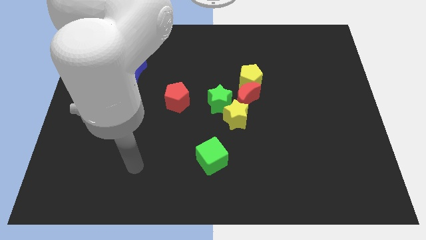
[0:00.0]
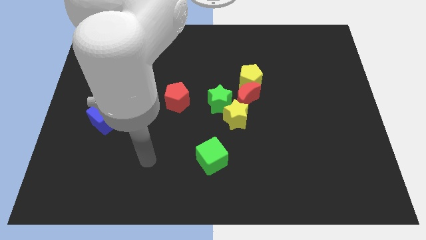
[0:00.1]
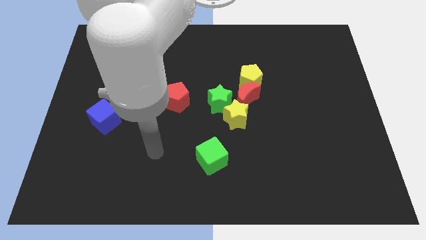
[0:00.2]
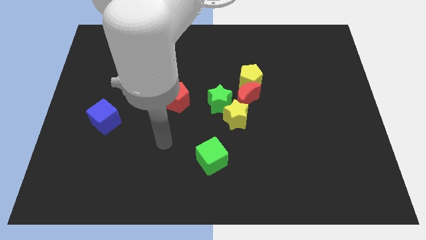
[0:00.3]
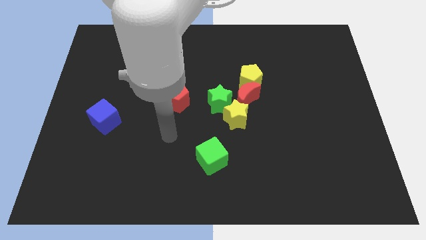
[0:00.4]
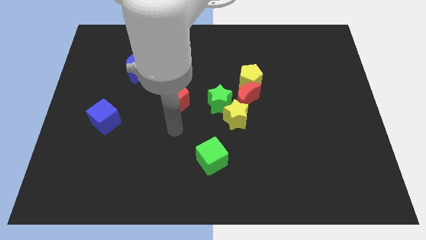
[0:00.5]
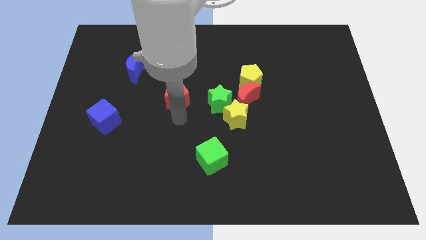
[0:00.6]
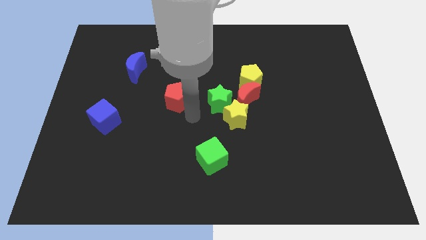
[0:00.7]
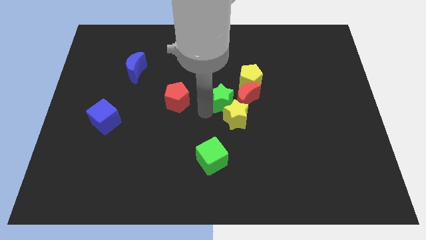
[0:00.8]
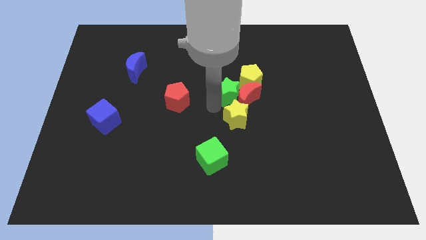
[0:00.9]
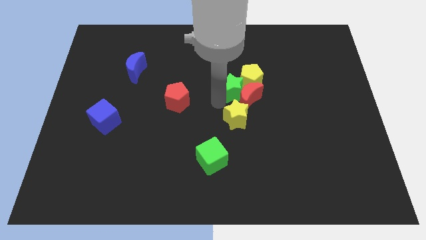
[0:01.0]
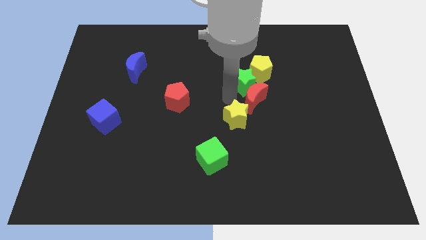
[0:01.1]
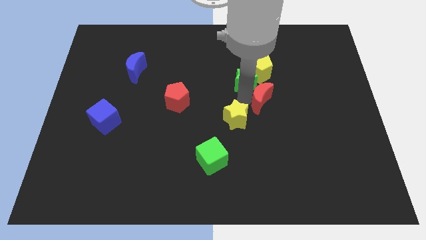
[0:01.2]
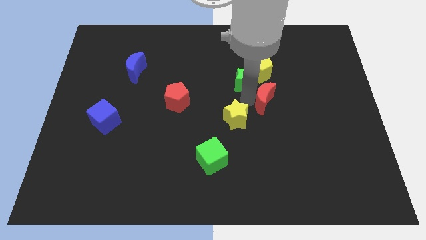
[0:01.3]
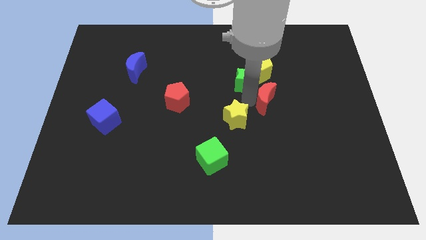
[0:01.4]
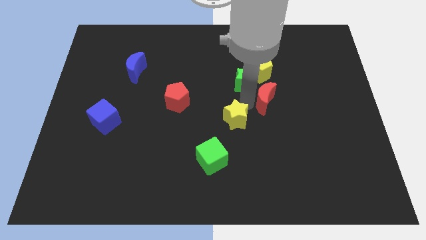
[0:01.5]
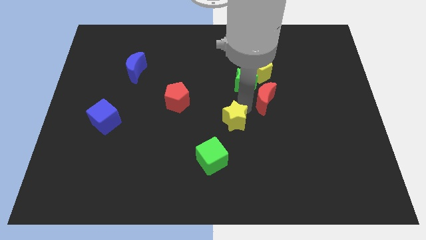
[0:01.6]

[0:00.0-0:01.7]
move the yellow star away from the green star and red moon

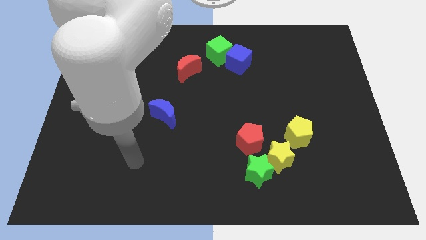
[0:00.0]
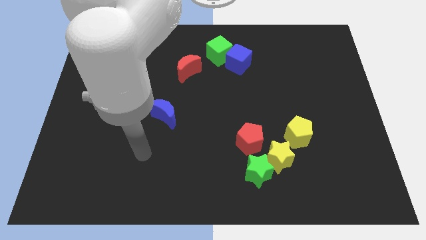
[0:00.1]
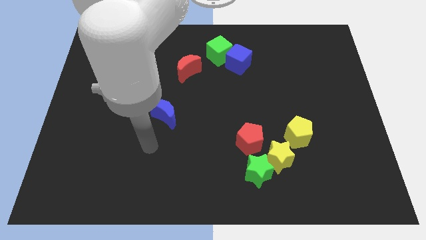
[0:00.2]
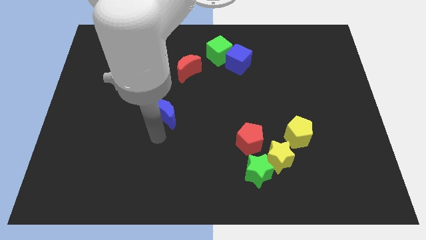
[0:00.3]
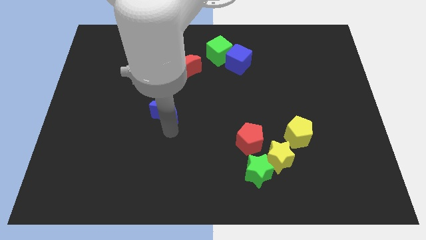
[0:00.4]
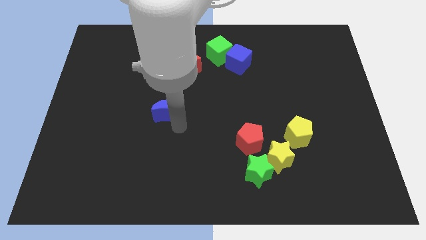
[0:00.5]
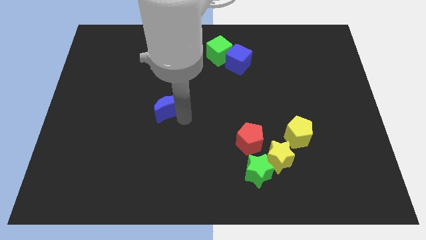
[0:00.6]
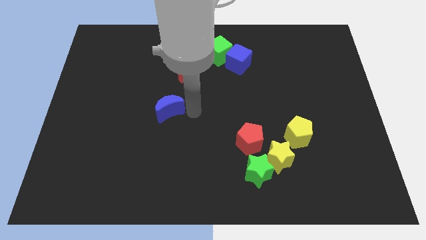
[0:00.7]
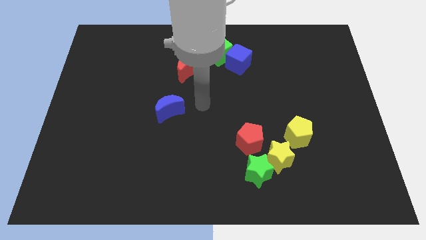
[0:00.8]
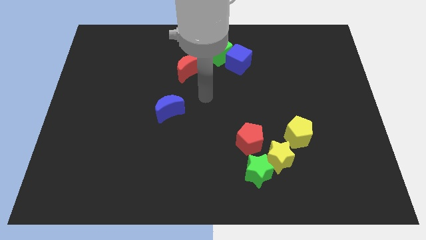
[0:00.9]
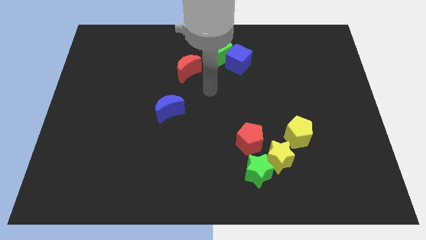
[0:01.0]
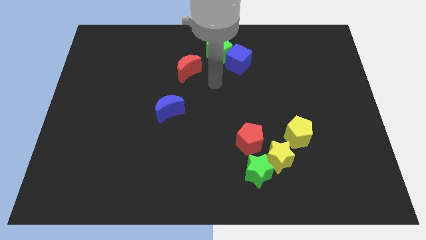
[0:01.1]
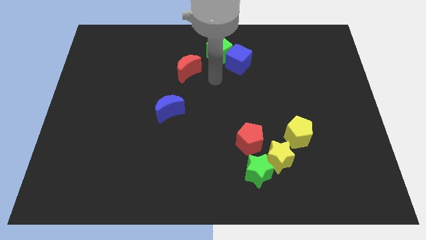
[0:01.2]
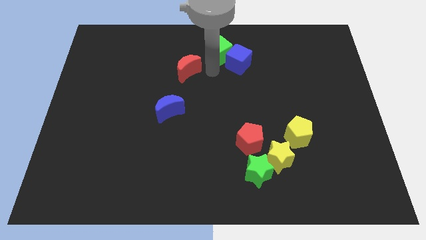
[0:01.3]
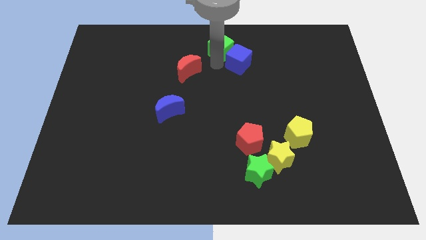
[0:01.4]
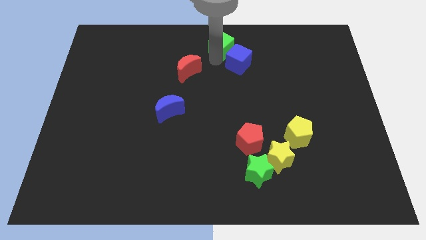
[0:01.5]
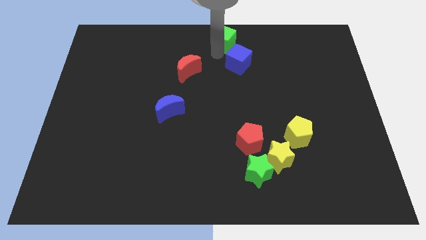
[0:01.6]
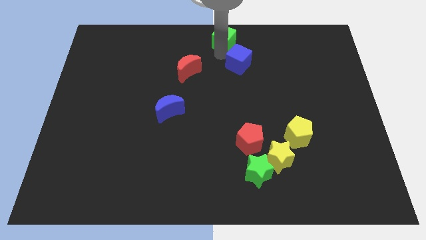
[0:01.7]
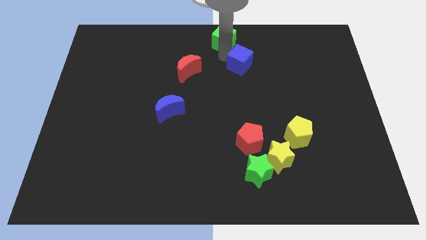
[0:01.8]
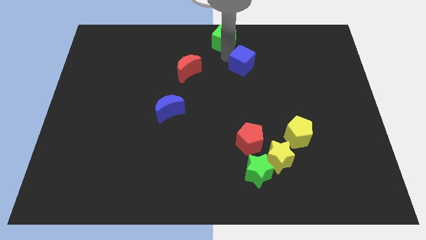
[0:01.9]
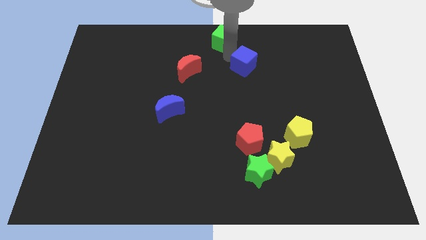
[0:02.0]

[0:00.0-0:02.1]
pull the blue cube apart from the green cube

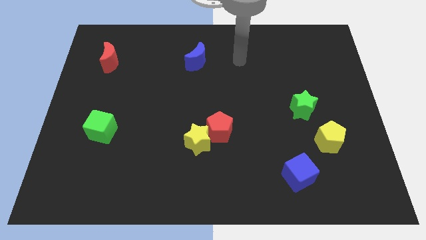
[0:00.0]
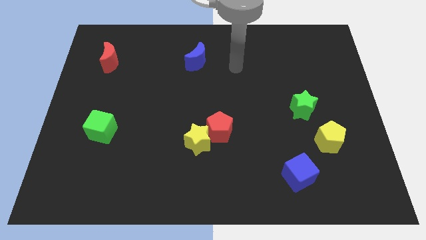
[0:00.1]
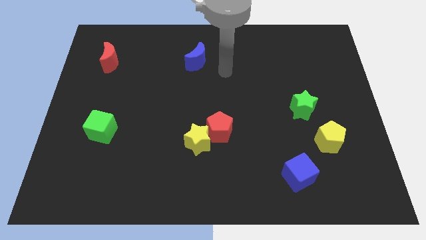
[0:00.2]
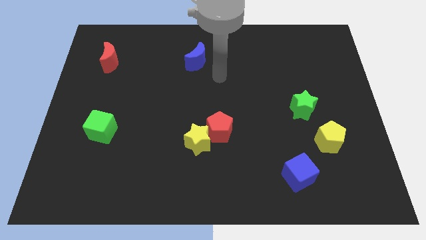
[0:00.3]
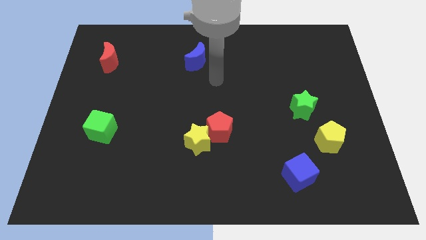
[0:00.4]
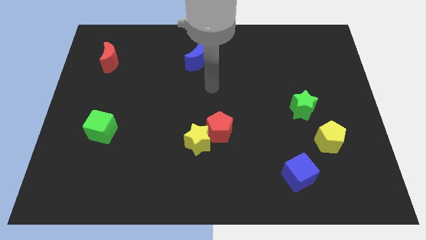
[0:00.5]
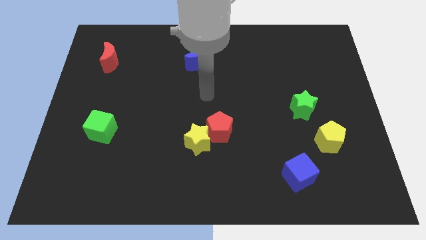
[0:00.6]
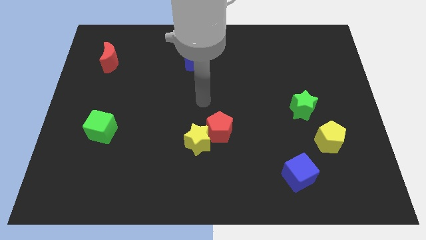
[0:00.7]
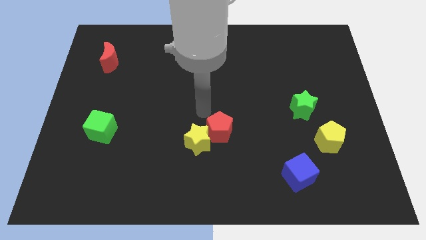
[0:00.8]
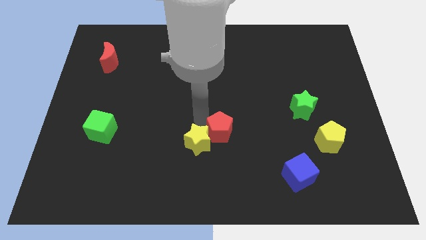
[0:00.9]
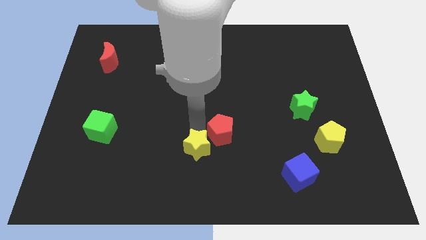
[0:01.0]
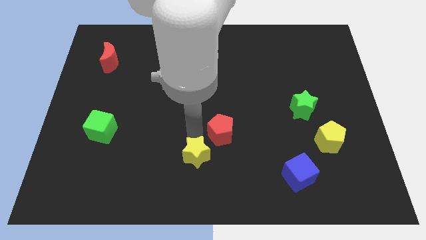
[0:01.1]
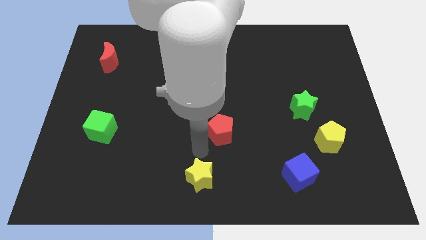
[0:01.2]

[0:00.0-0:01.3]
separate the red pentagon from the yellow star

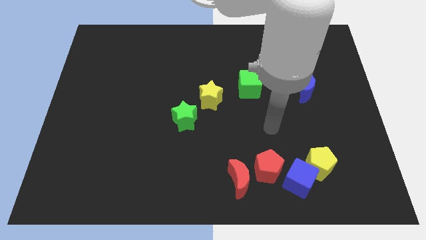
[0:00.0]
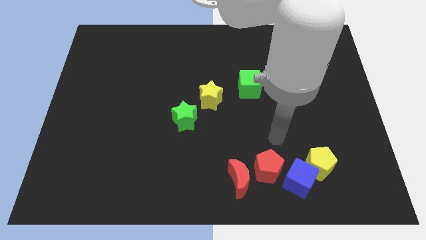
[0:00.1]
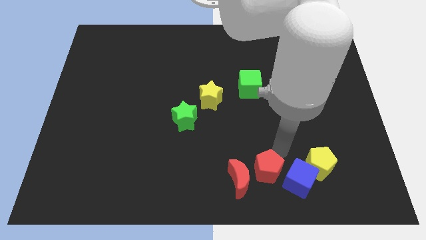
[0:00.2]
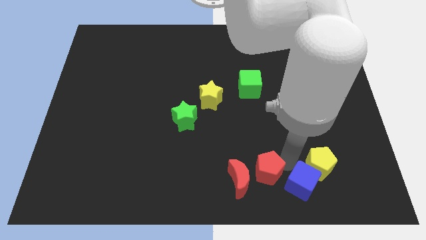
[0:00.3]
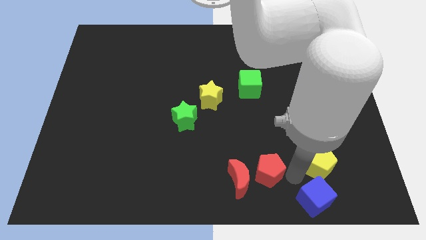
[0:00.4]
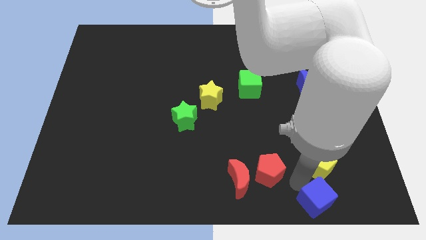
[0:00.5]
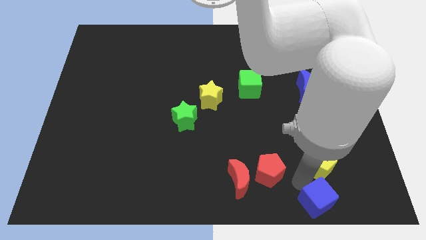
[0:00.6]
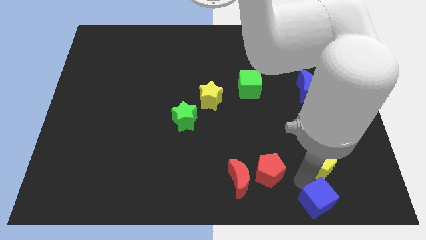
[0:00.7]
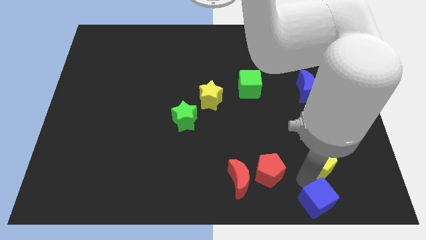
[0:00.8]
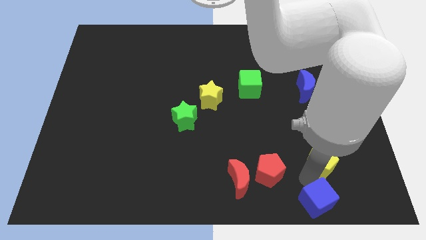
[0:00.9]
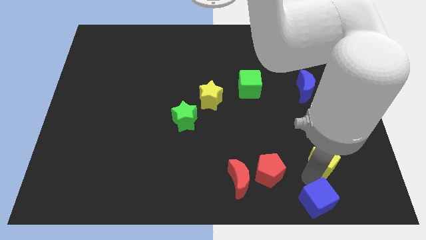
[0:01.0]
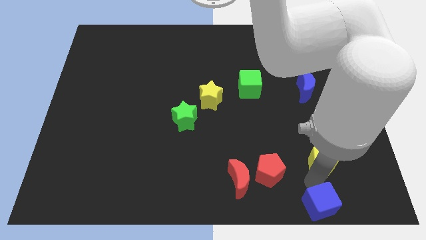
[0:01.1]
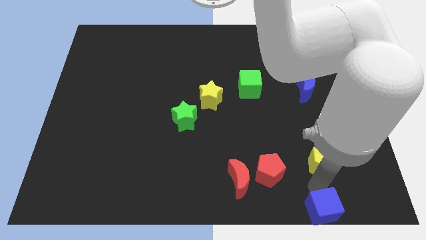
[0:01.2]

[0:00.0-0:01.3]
separate the yellow pentagon from the blue cube

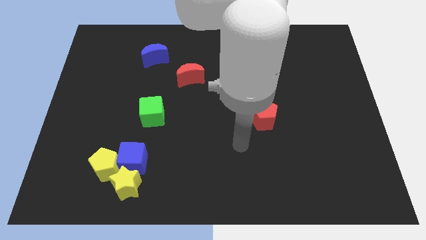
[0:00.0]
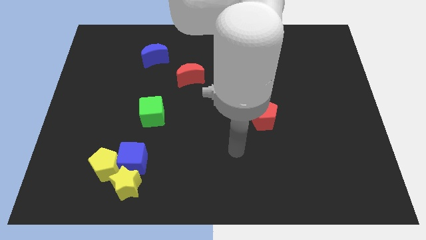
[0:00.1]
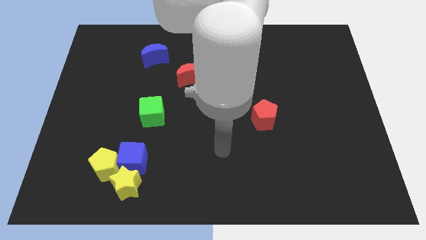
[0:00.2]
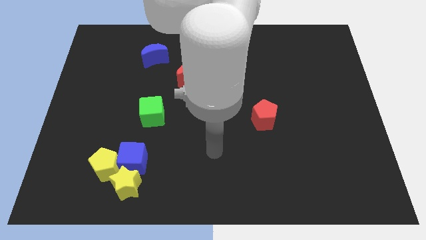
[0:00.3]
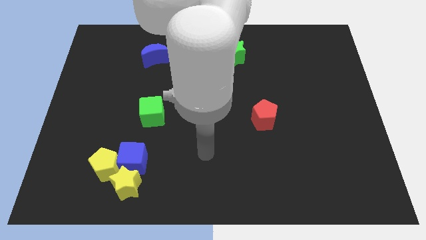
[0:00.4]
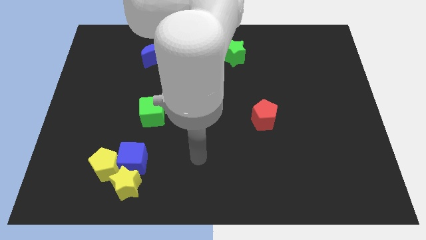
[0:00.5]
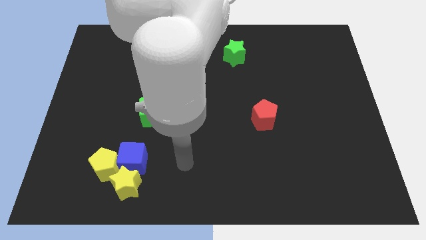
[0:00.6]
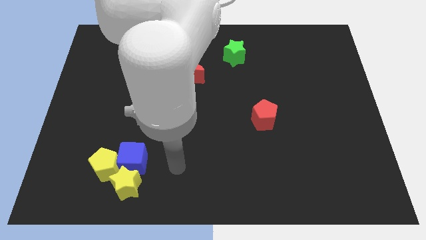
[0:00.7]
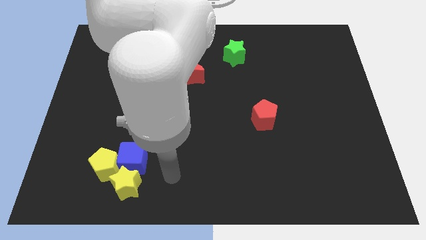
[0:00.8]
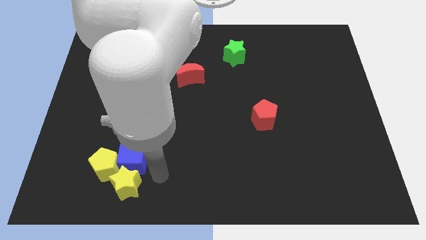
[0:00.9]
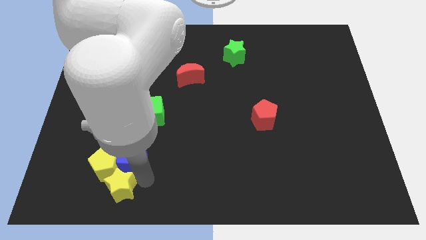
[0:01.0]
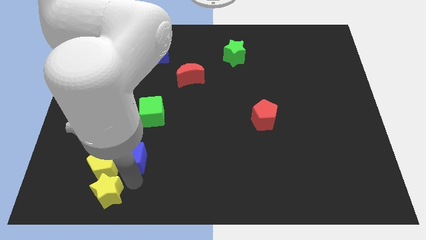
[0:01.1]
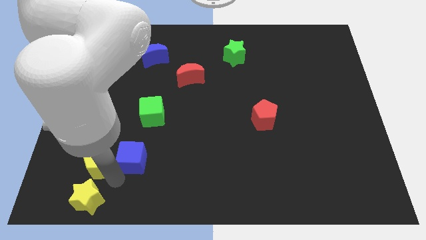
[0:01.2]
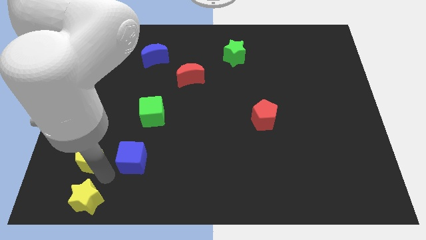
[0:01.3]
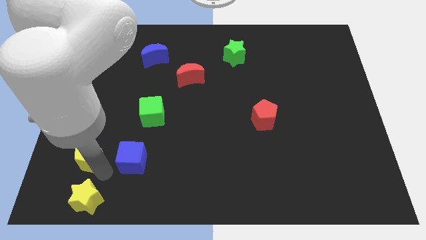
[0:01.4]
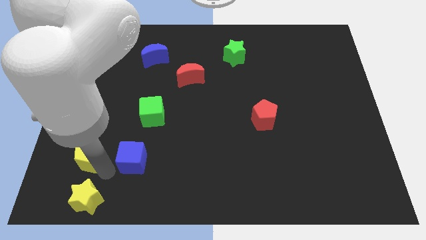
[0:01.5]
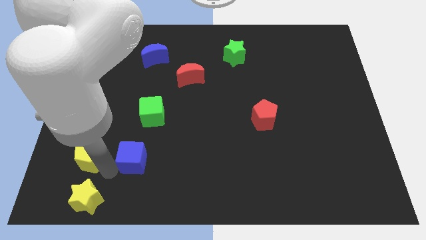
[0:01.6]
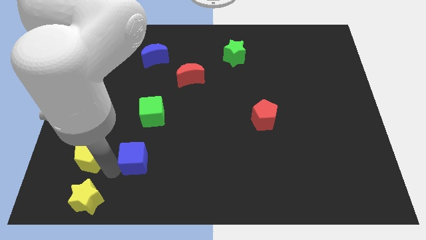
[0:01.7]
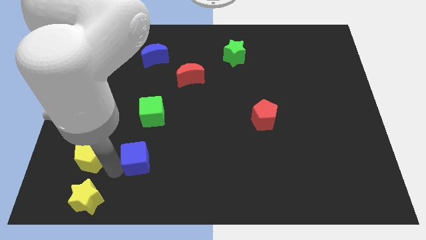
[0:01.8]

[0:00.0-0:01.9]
pull the blue cube apart from the yellow star and yellow pentagon

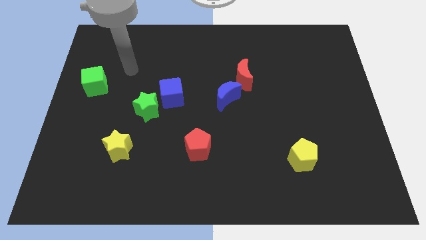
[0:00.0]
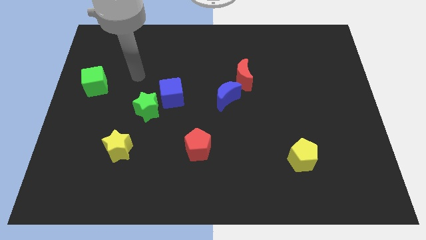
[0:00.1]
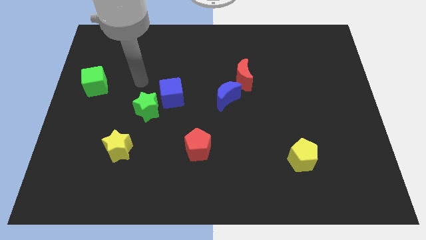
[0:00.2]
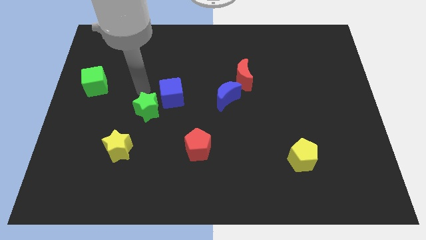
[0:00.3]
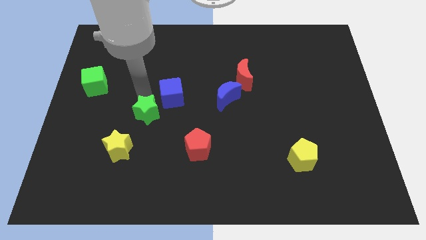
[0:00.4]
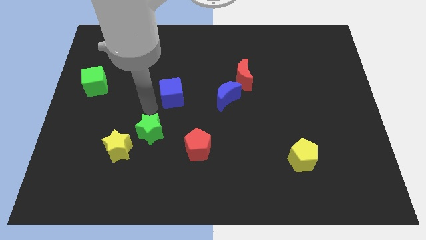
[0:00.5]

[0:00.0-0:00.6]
pull the blue cube apart from the green star
